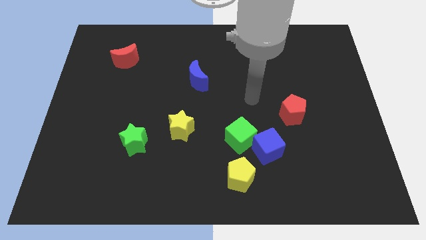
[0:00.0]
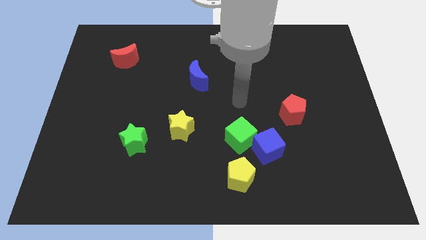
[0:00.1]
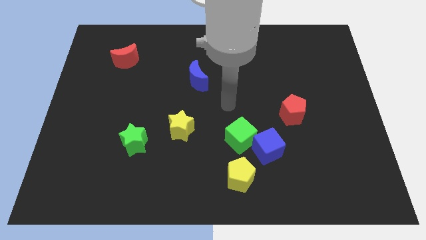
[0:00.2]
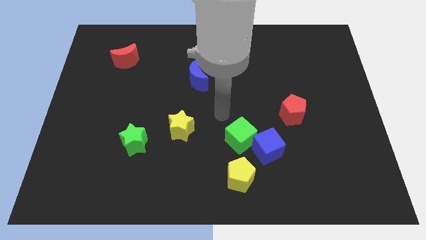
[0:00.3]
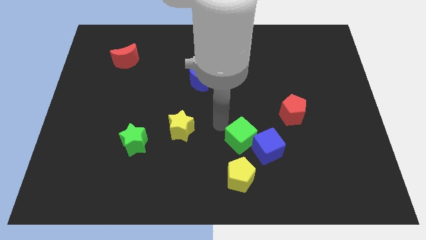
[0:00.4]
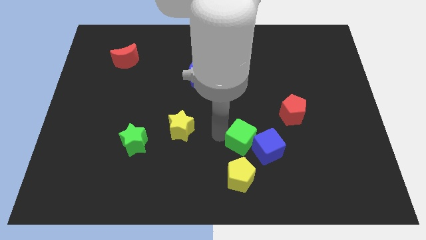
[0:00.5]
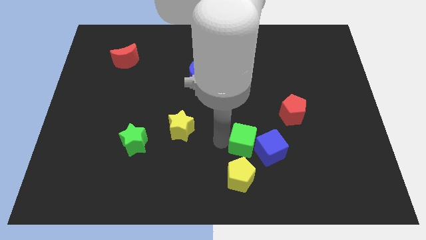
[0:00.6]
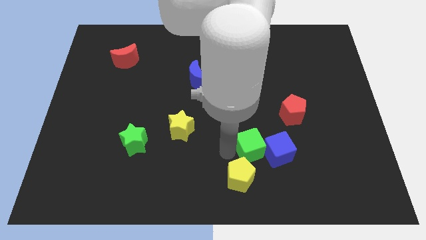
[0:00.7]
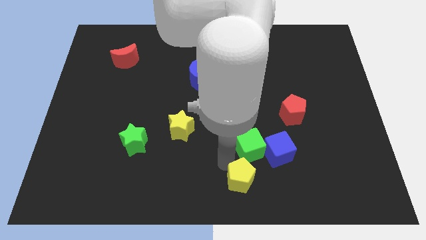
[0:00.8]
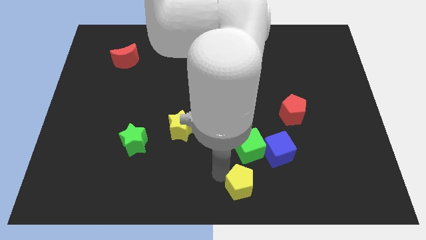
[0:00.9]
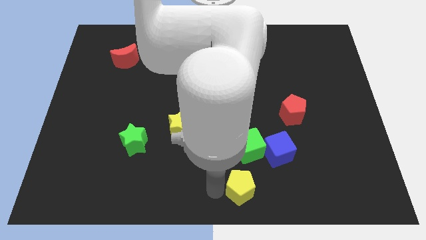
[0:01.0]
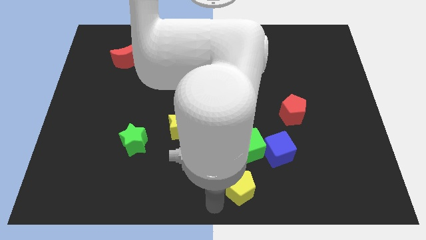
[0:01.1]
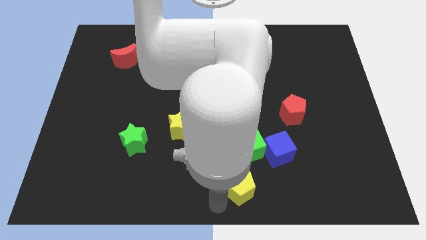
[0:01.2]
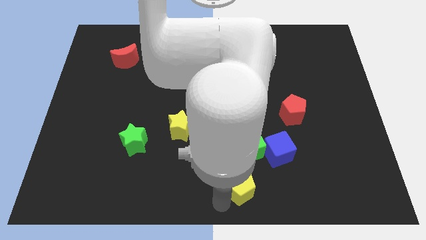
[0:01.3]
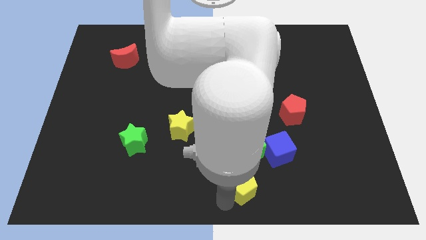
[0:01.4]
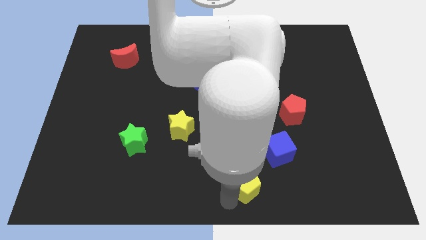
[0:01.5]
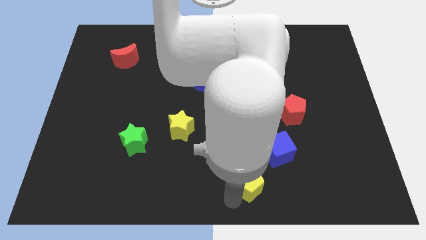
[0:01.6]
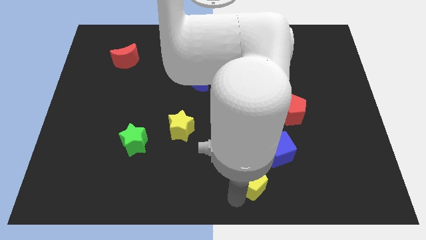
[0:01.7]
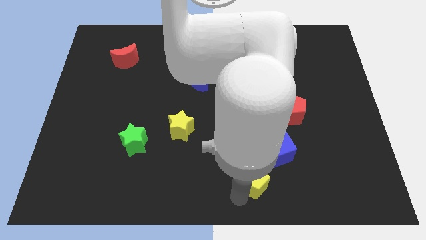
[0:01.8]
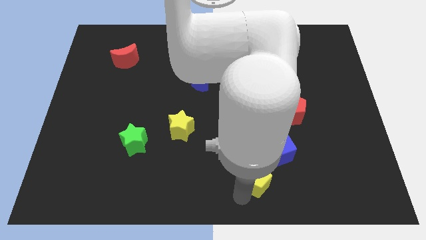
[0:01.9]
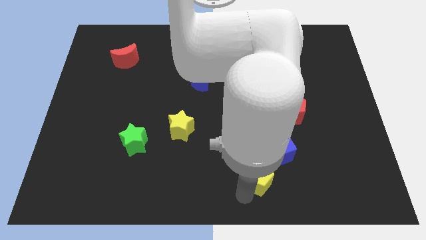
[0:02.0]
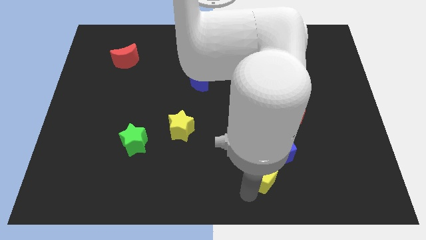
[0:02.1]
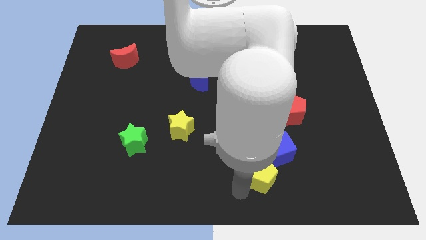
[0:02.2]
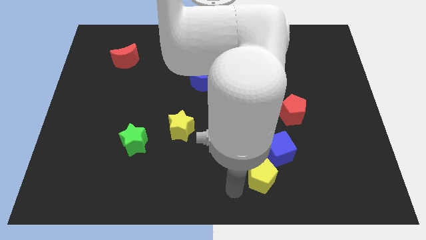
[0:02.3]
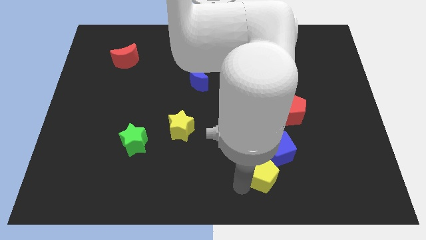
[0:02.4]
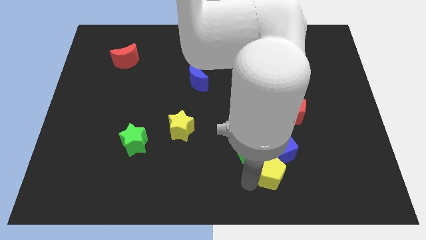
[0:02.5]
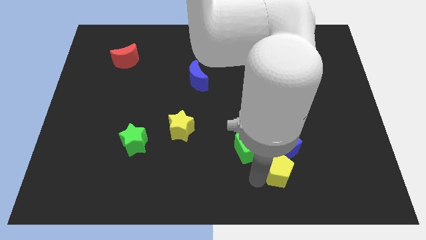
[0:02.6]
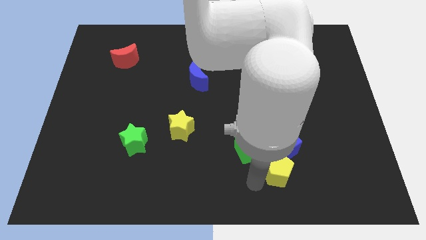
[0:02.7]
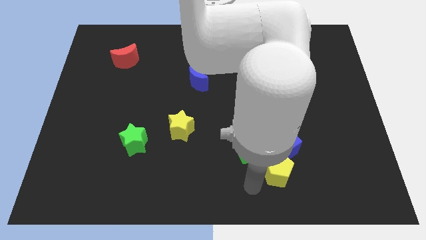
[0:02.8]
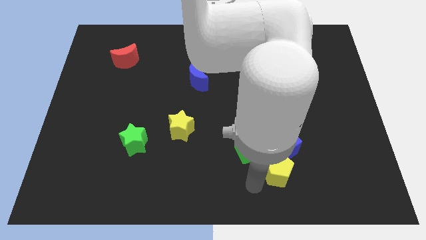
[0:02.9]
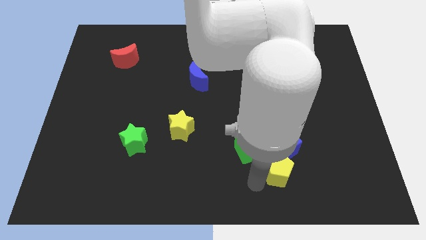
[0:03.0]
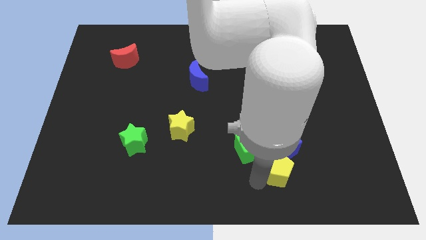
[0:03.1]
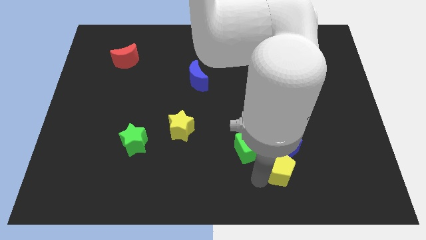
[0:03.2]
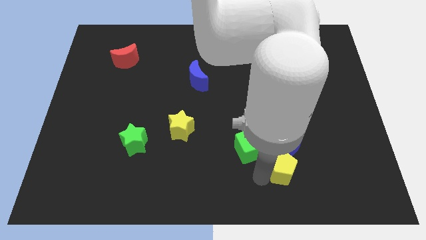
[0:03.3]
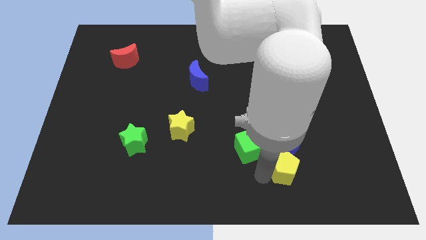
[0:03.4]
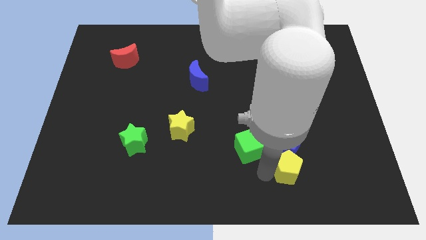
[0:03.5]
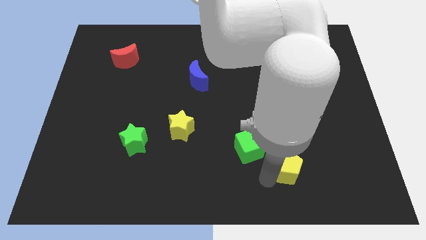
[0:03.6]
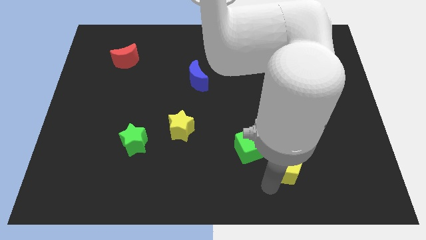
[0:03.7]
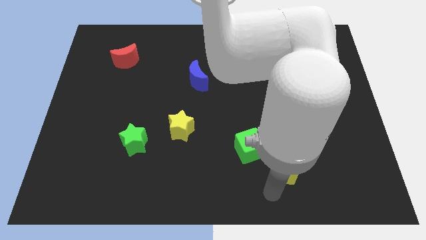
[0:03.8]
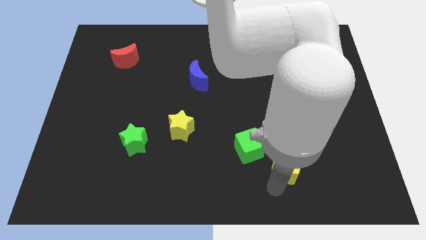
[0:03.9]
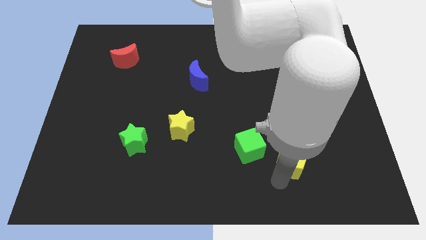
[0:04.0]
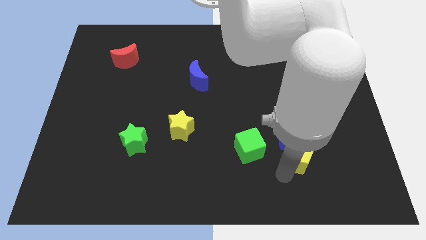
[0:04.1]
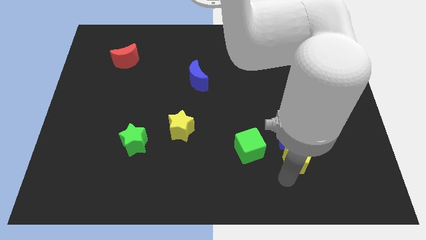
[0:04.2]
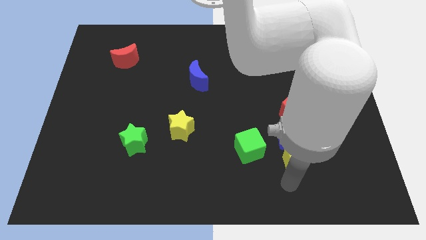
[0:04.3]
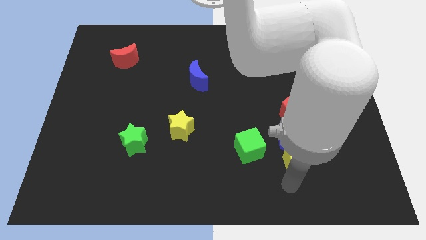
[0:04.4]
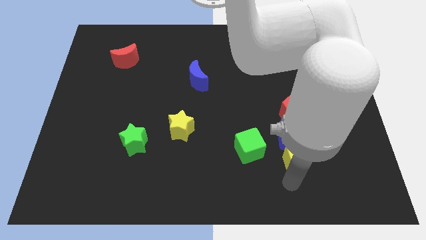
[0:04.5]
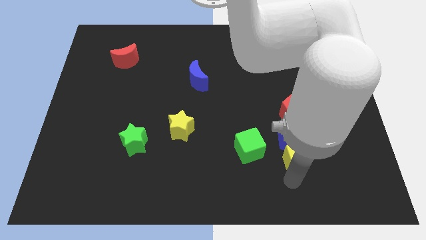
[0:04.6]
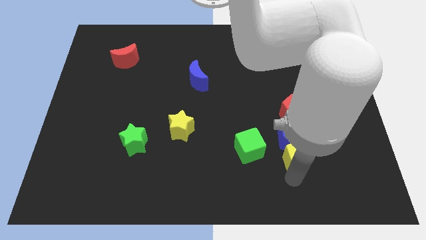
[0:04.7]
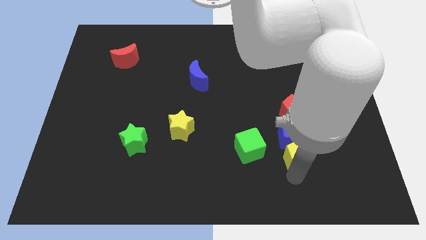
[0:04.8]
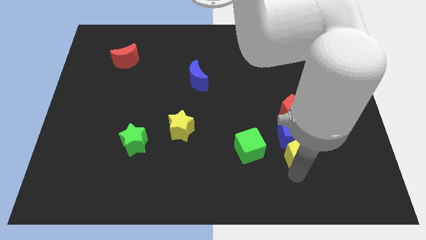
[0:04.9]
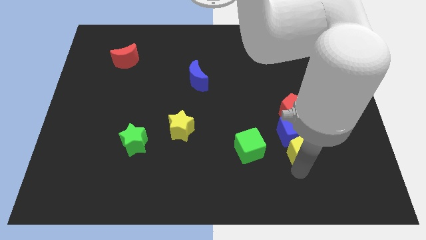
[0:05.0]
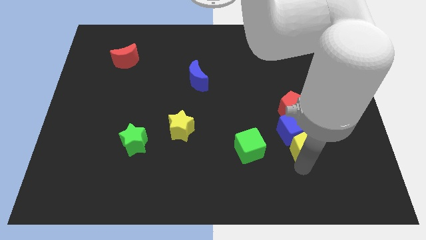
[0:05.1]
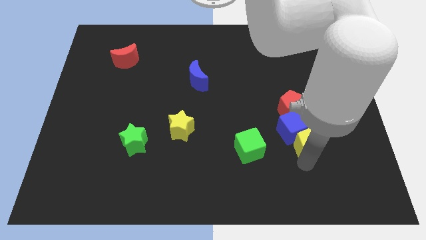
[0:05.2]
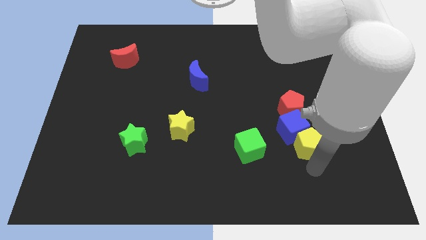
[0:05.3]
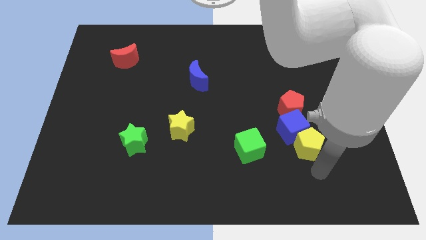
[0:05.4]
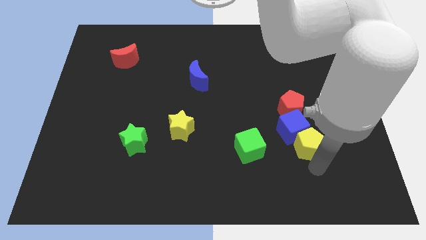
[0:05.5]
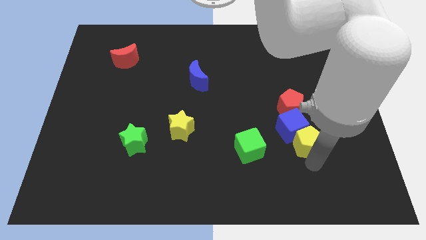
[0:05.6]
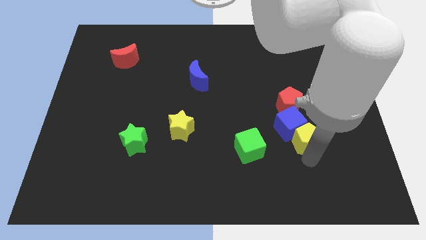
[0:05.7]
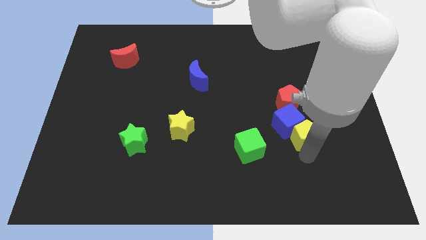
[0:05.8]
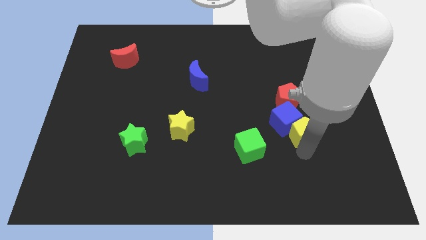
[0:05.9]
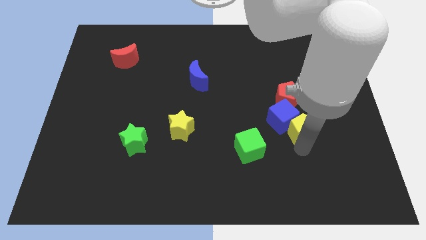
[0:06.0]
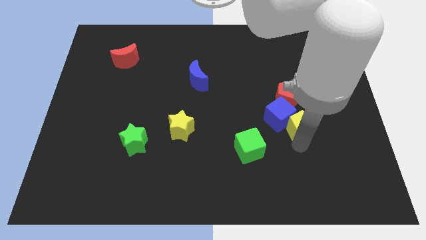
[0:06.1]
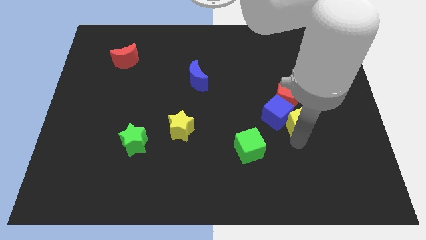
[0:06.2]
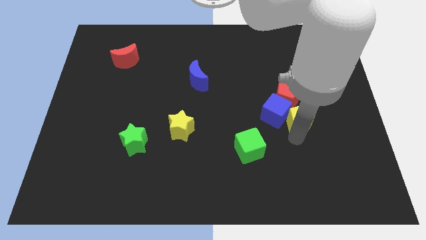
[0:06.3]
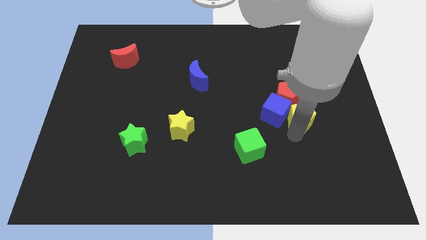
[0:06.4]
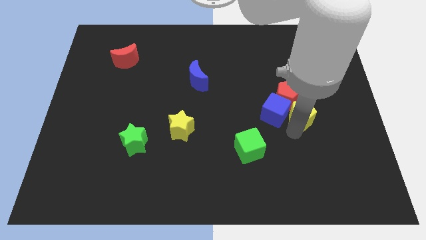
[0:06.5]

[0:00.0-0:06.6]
slide the yellow pentagon towards the red pentagon

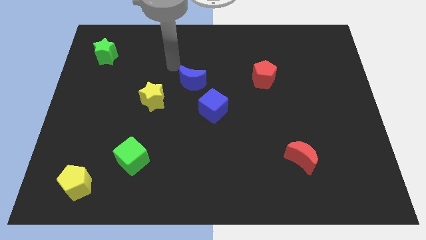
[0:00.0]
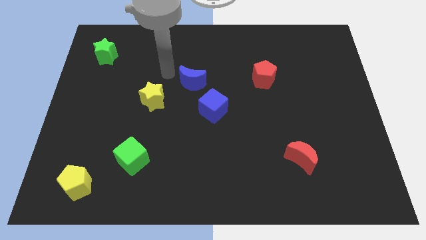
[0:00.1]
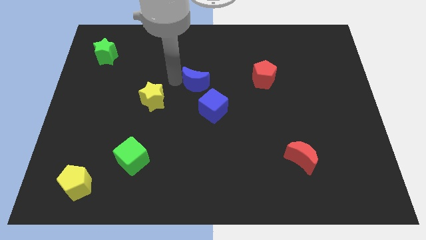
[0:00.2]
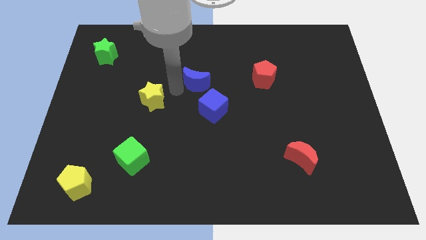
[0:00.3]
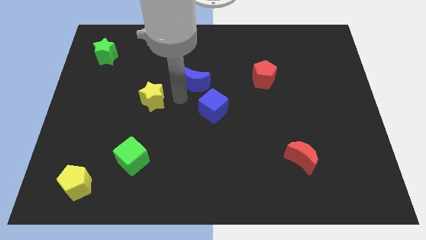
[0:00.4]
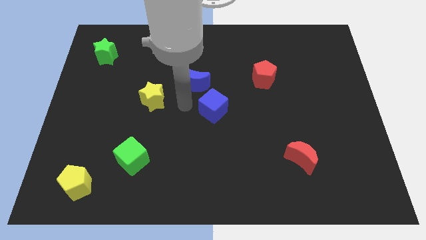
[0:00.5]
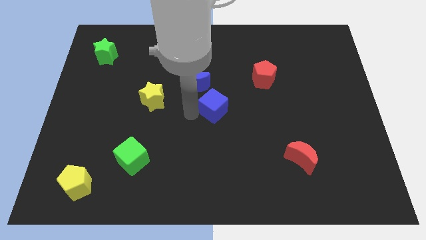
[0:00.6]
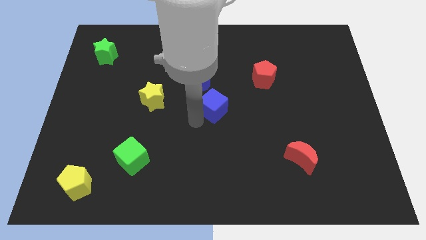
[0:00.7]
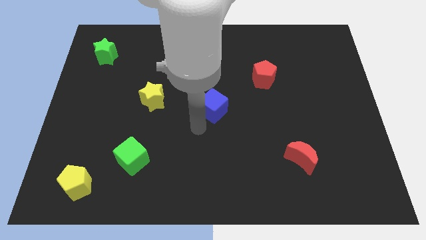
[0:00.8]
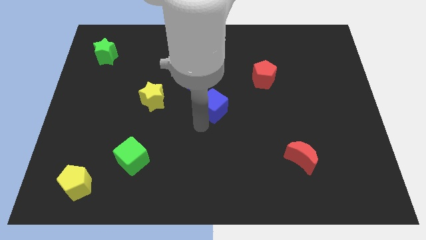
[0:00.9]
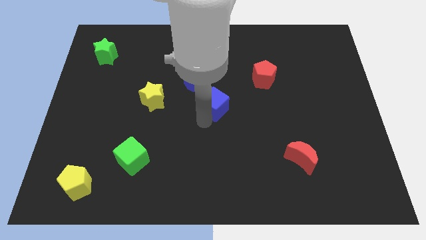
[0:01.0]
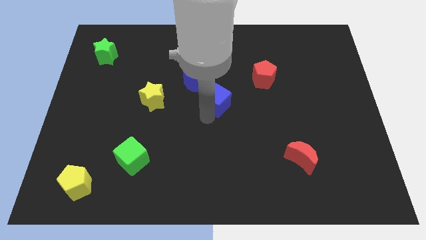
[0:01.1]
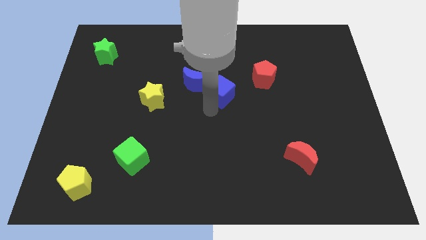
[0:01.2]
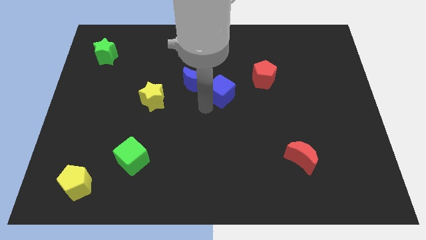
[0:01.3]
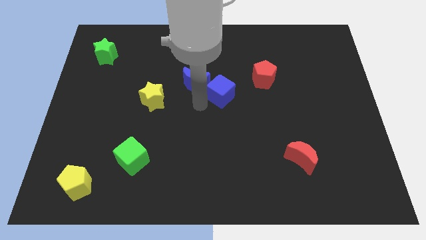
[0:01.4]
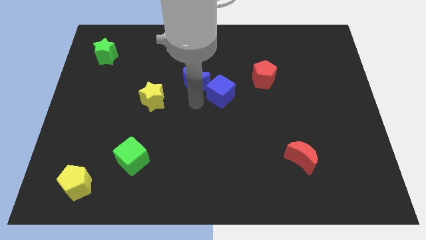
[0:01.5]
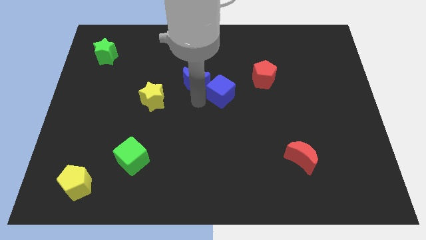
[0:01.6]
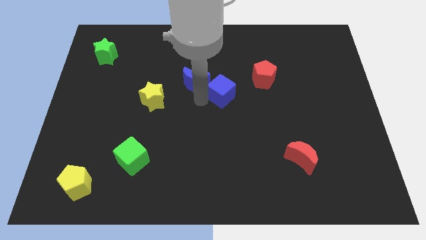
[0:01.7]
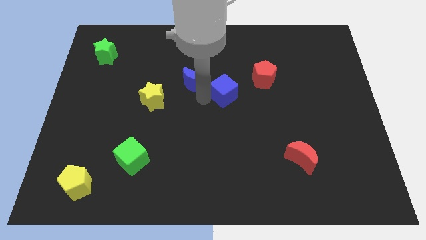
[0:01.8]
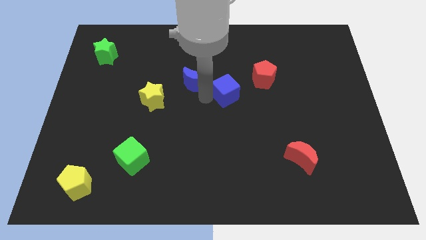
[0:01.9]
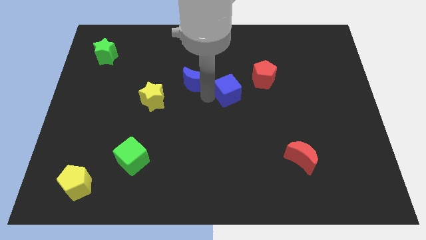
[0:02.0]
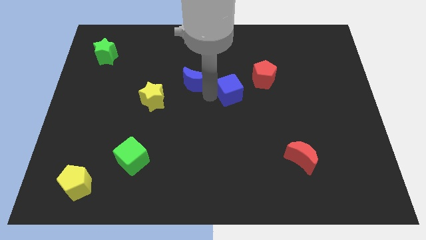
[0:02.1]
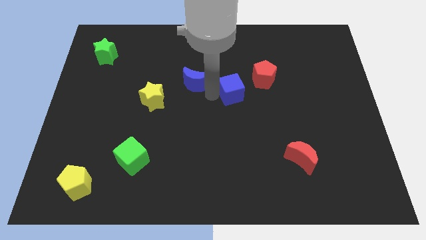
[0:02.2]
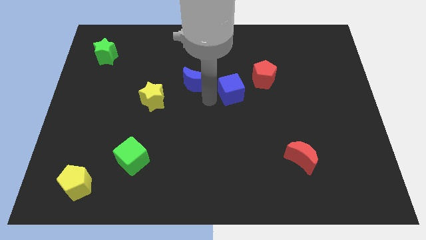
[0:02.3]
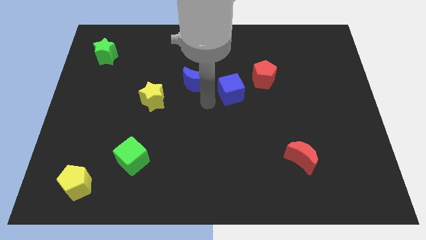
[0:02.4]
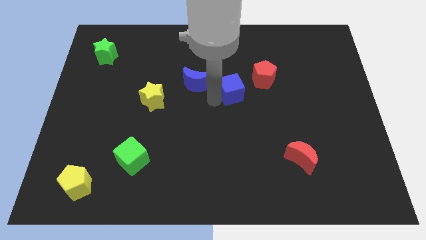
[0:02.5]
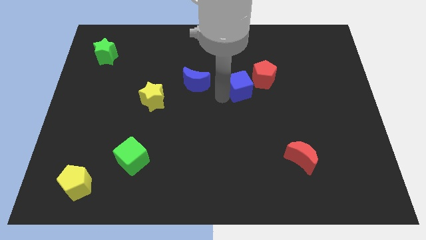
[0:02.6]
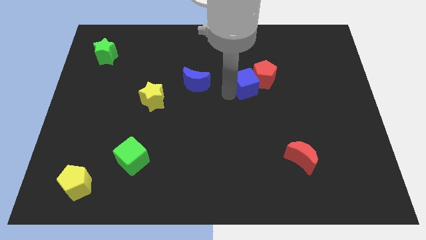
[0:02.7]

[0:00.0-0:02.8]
slide the blue cube towards the red pentagon
